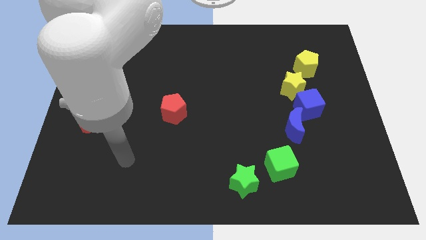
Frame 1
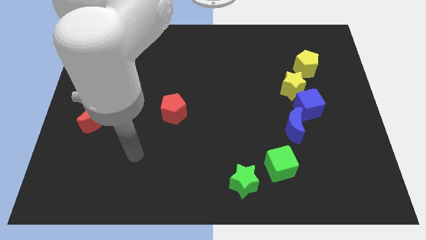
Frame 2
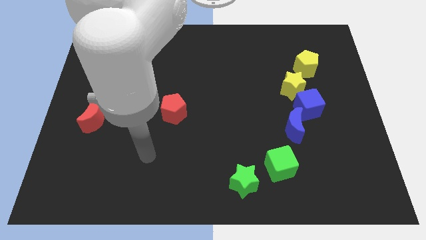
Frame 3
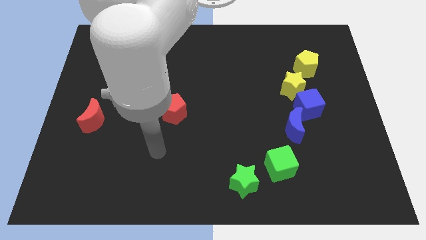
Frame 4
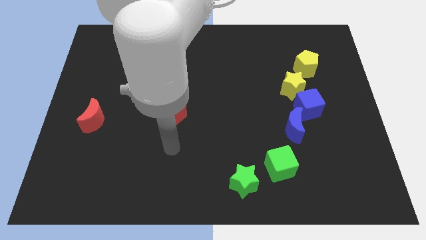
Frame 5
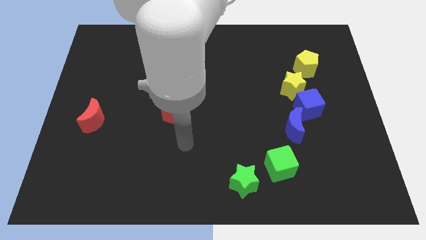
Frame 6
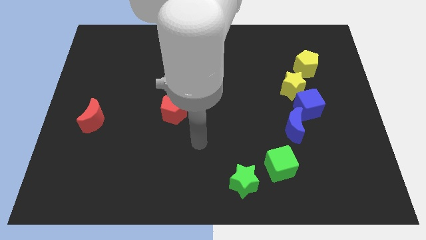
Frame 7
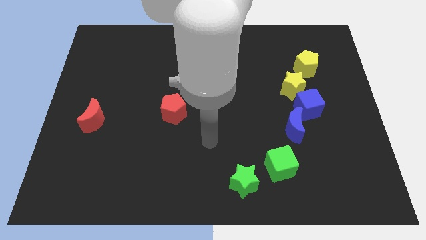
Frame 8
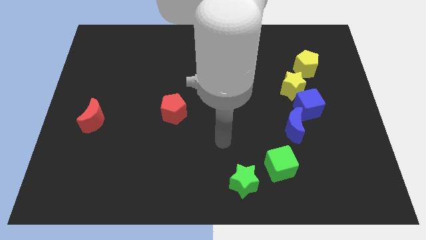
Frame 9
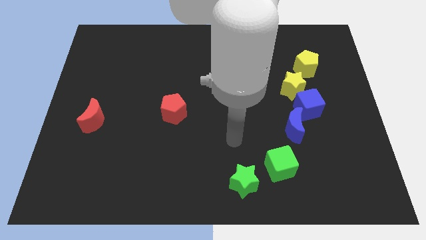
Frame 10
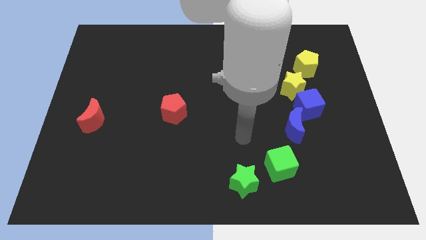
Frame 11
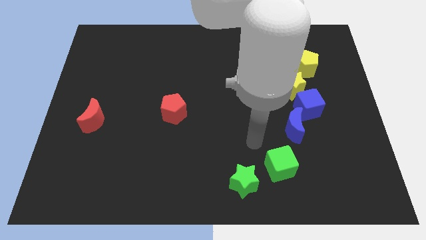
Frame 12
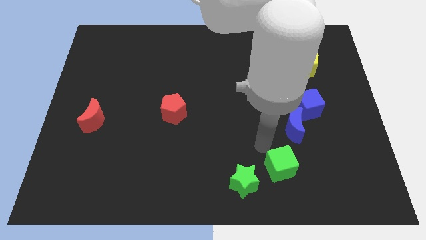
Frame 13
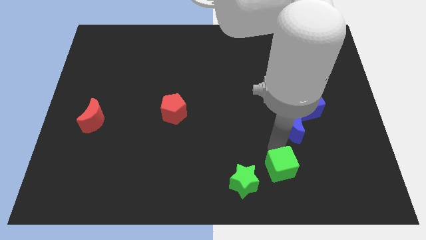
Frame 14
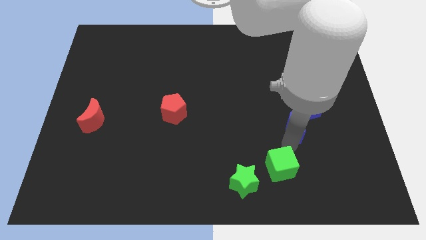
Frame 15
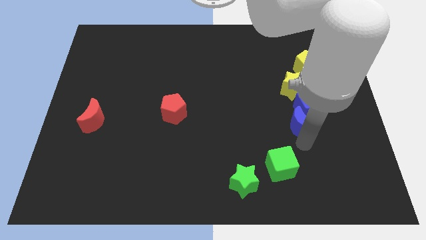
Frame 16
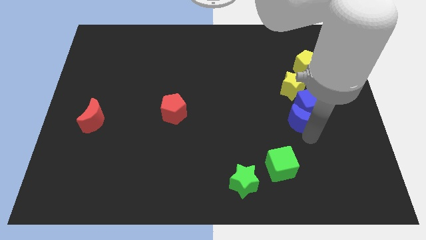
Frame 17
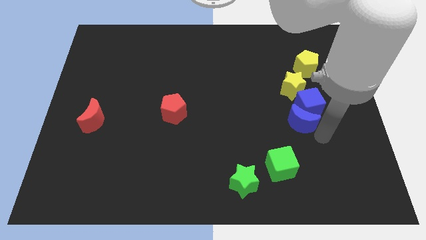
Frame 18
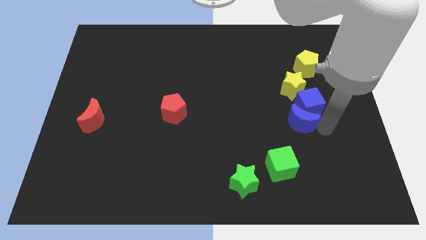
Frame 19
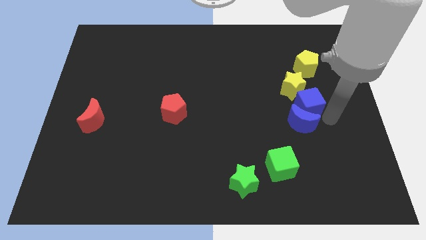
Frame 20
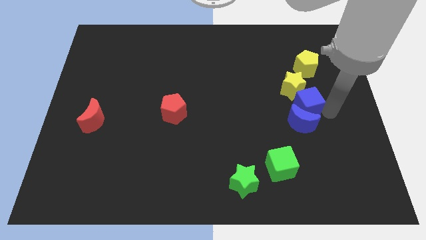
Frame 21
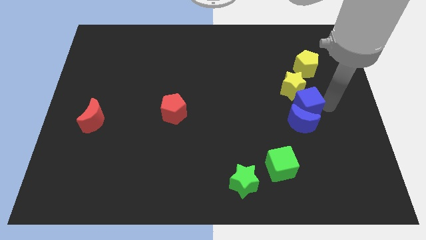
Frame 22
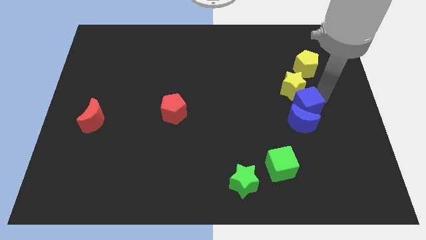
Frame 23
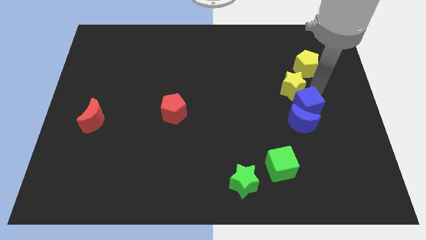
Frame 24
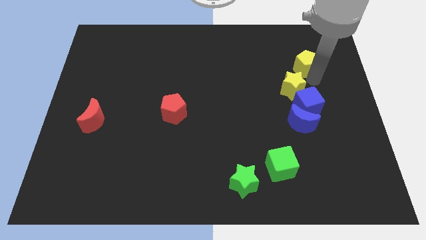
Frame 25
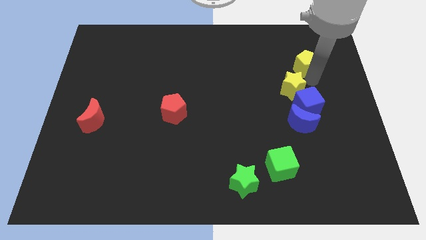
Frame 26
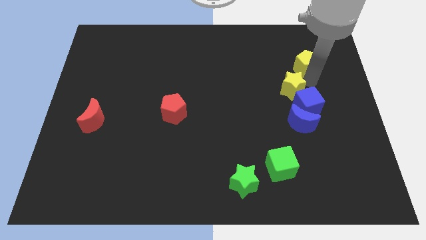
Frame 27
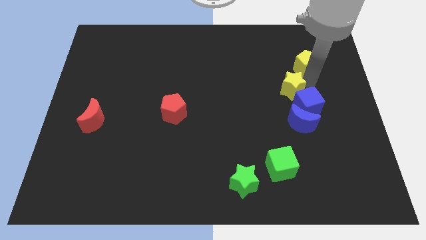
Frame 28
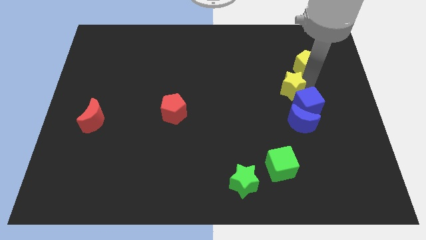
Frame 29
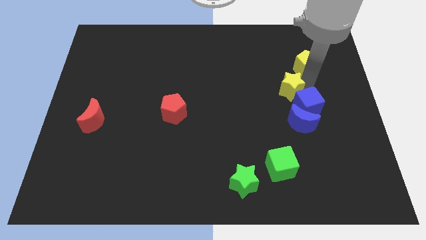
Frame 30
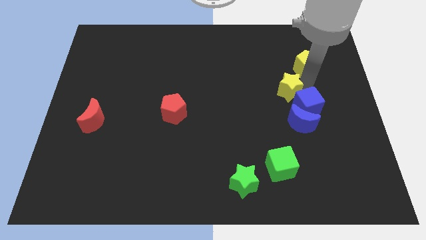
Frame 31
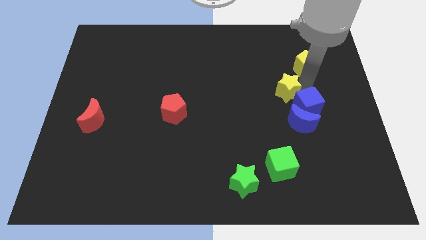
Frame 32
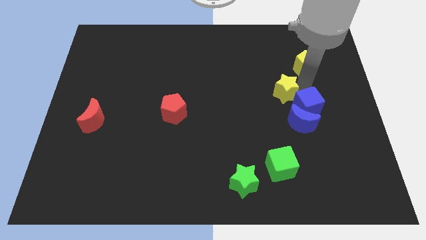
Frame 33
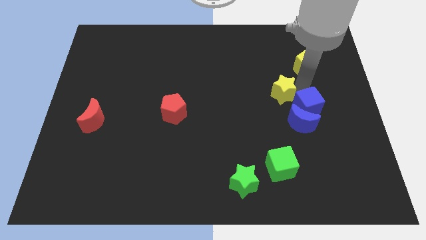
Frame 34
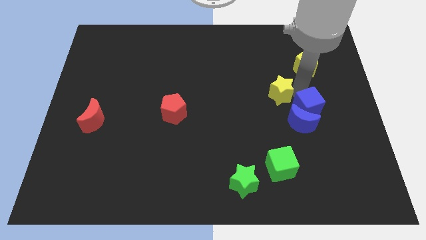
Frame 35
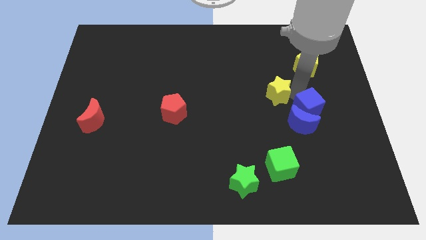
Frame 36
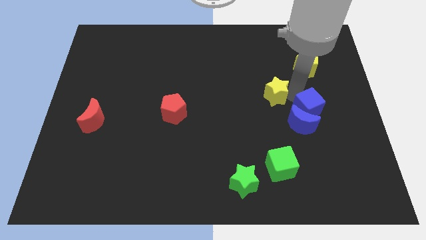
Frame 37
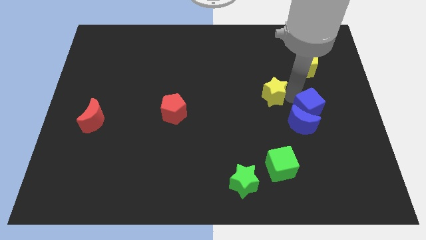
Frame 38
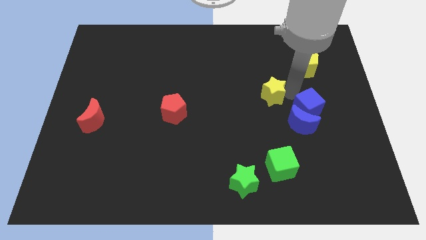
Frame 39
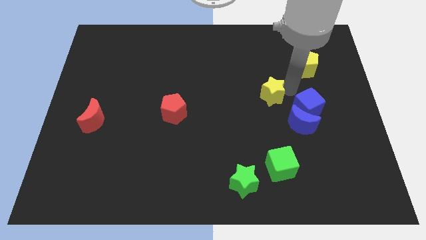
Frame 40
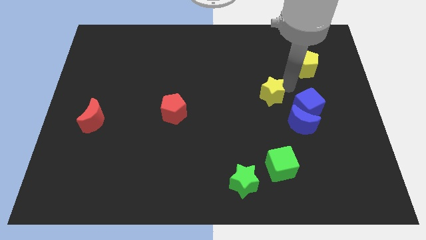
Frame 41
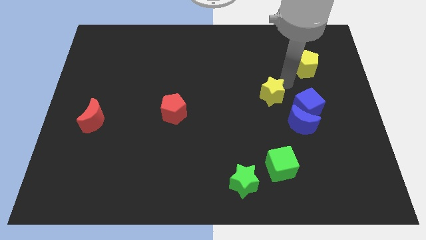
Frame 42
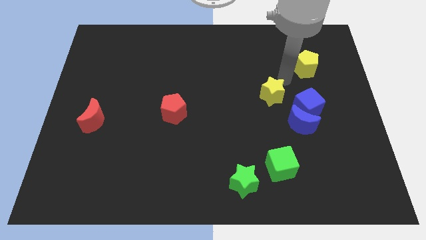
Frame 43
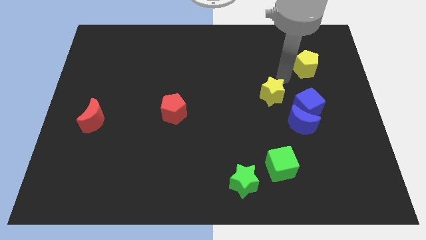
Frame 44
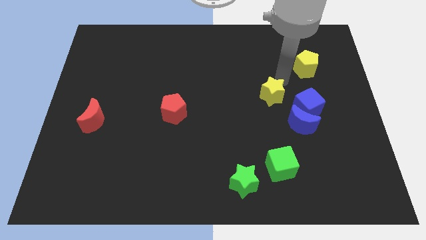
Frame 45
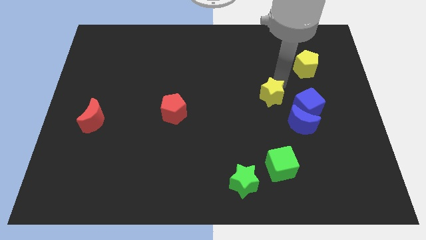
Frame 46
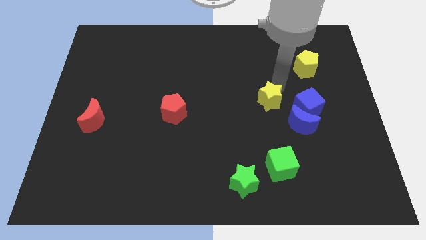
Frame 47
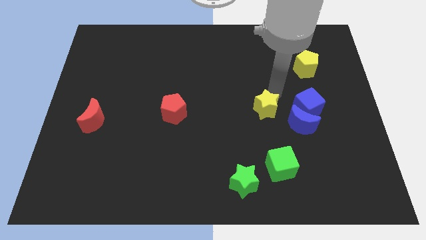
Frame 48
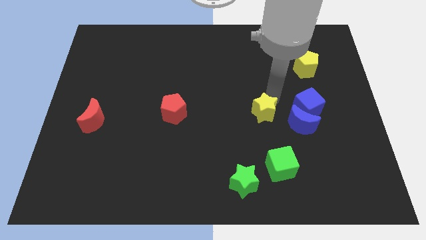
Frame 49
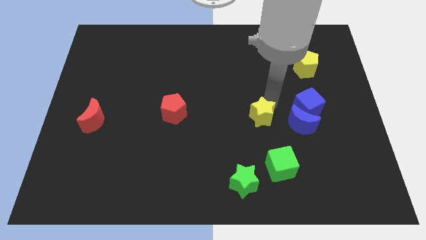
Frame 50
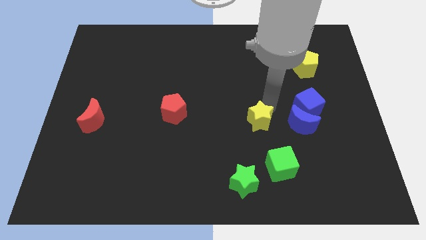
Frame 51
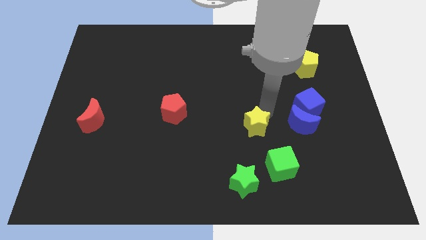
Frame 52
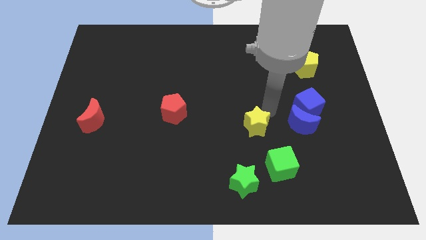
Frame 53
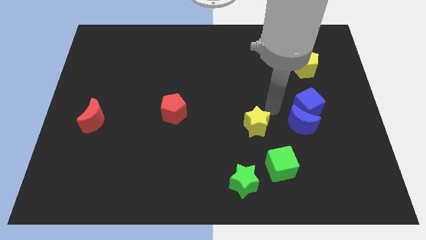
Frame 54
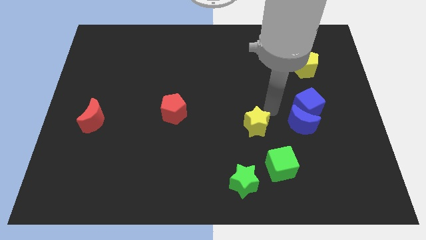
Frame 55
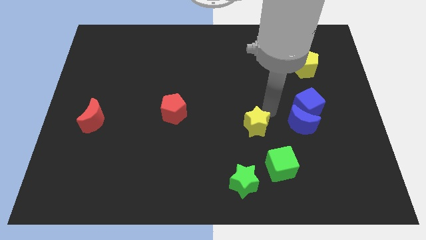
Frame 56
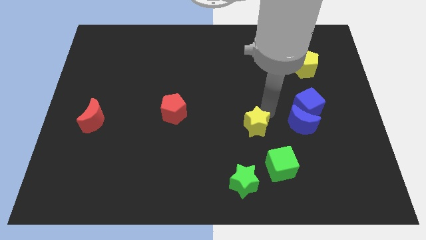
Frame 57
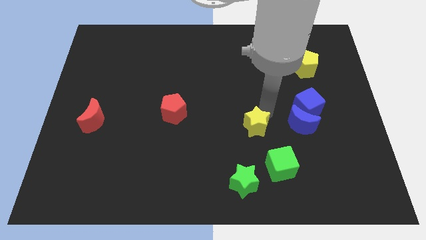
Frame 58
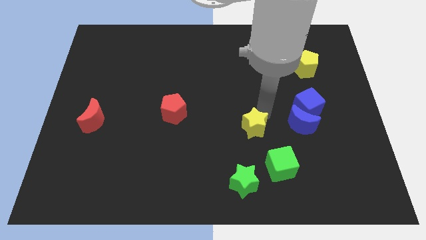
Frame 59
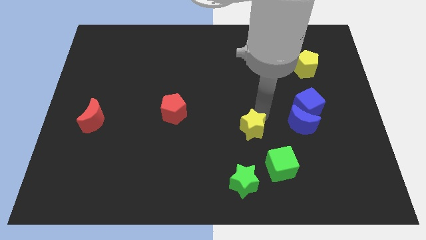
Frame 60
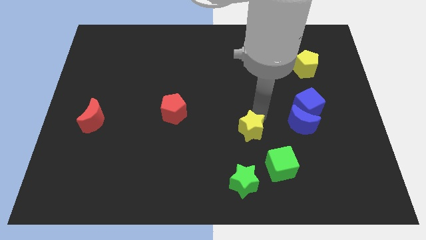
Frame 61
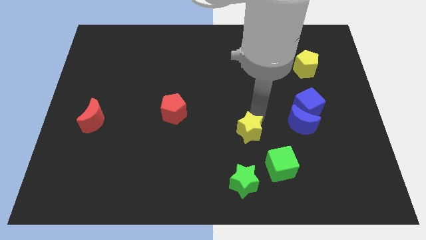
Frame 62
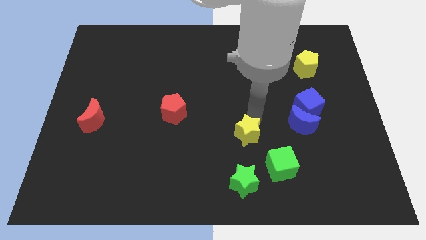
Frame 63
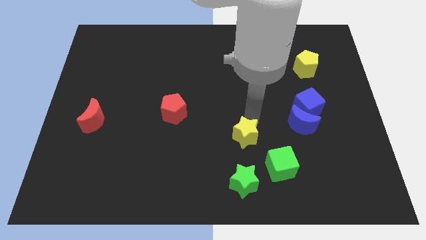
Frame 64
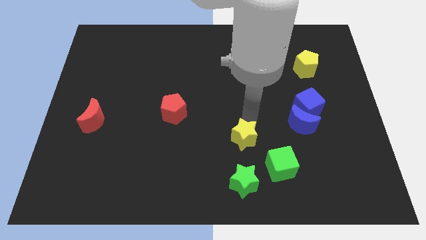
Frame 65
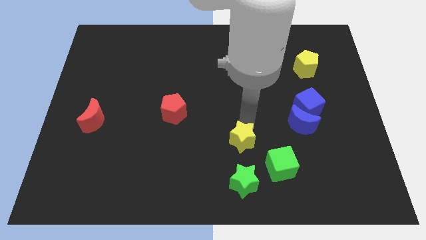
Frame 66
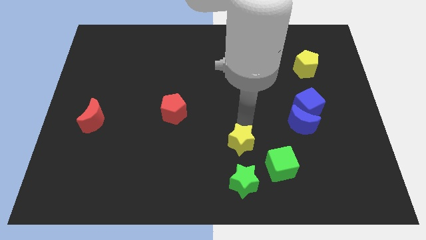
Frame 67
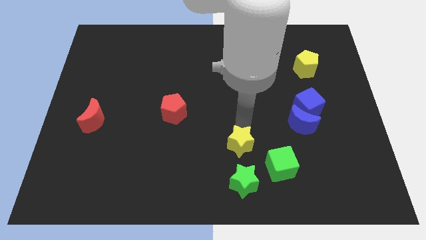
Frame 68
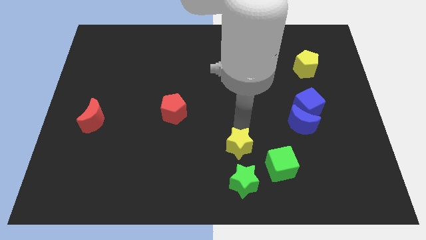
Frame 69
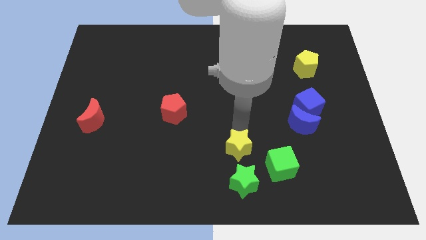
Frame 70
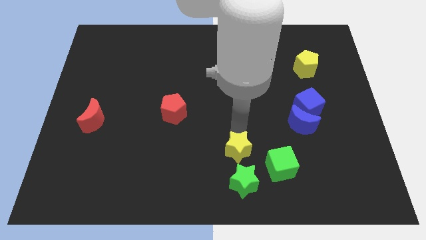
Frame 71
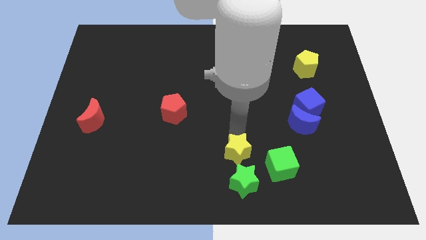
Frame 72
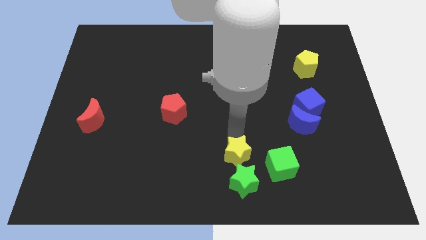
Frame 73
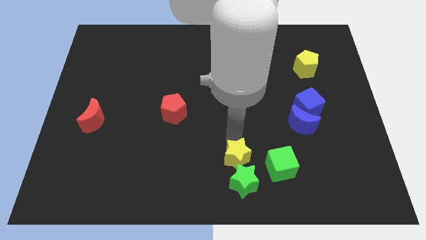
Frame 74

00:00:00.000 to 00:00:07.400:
slide the yellow star next to the green star
